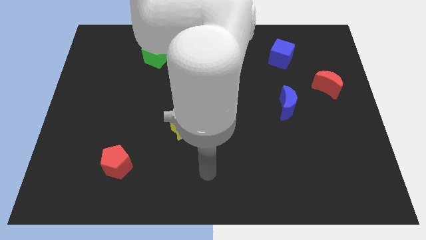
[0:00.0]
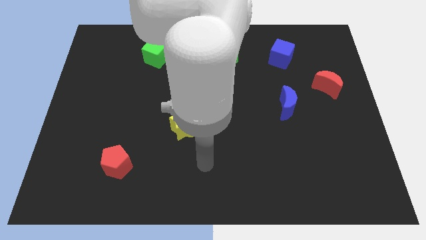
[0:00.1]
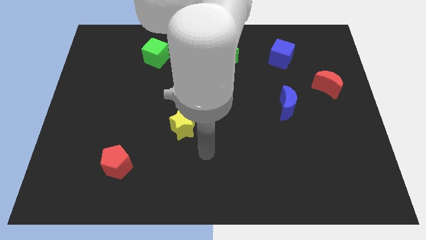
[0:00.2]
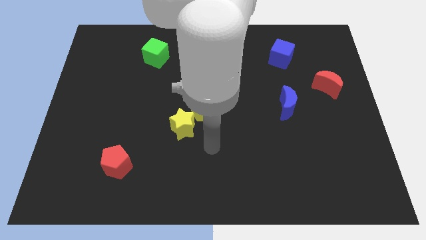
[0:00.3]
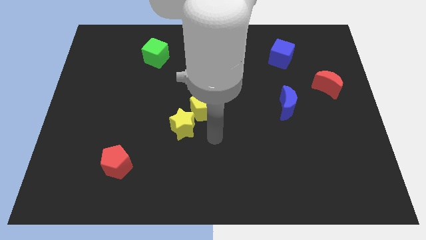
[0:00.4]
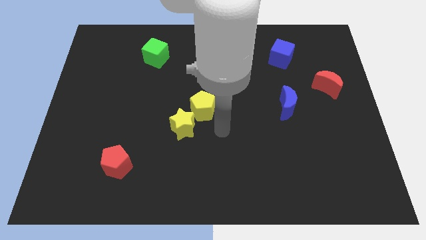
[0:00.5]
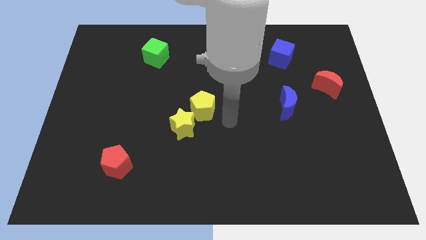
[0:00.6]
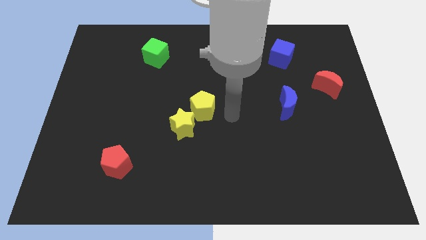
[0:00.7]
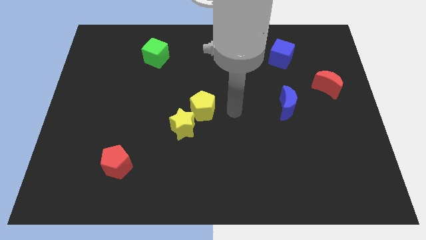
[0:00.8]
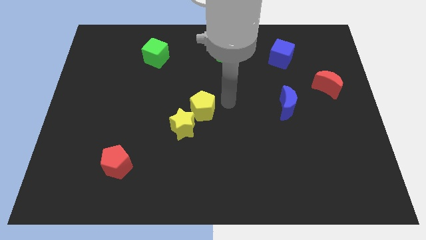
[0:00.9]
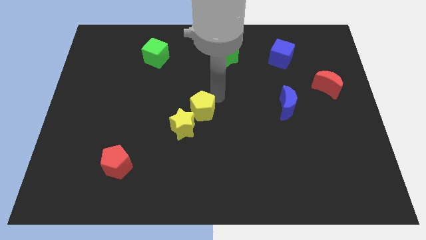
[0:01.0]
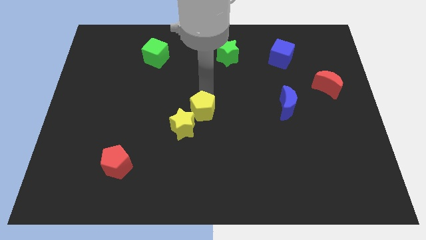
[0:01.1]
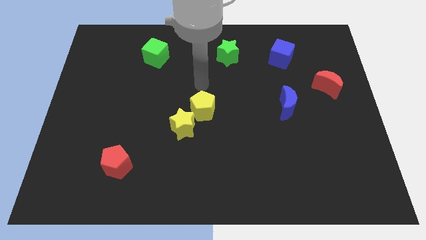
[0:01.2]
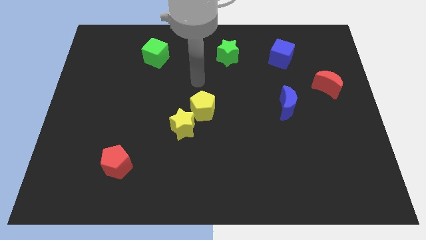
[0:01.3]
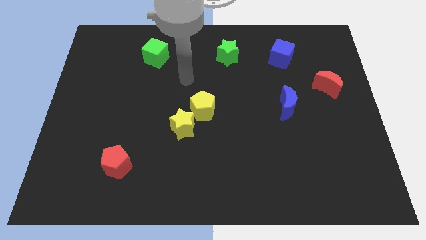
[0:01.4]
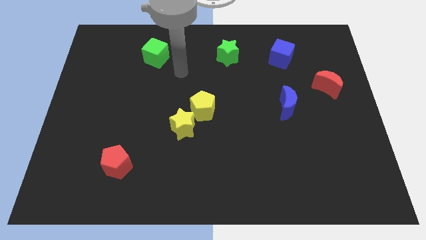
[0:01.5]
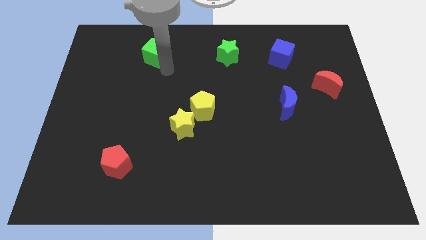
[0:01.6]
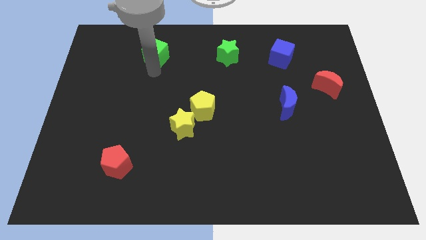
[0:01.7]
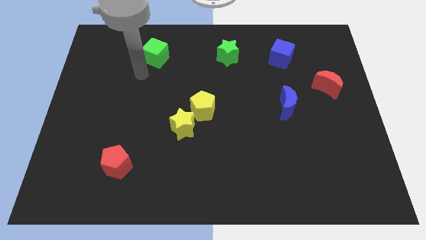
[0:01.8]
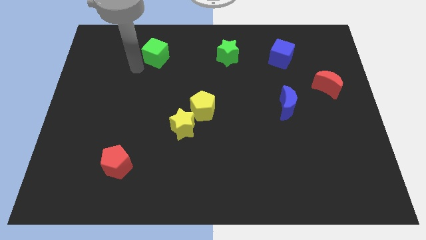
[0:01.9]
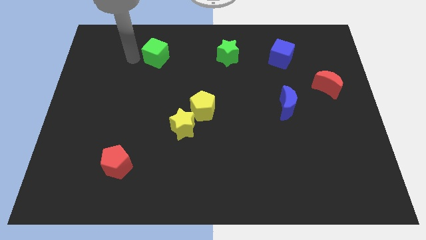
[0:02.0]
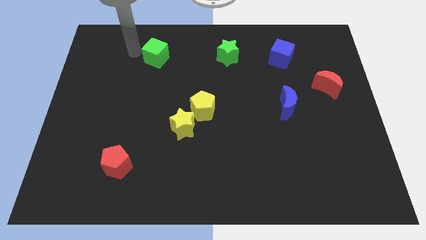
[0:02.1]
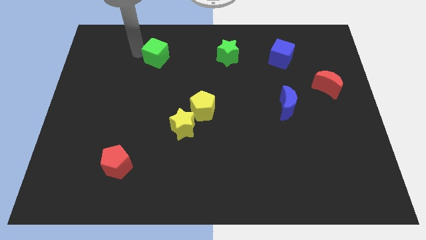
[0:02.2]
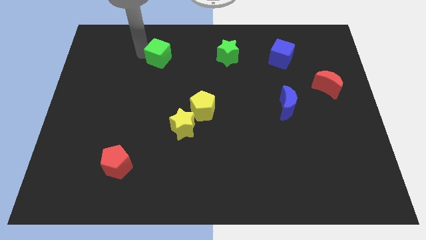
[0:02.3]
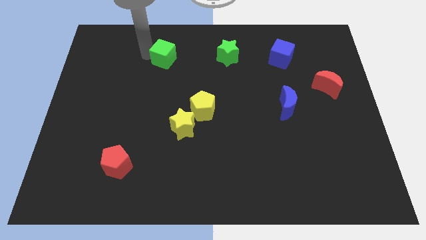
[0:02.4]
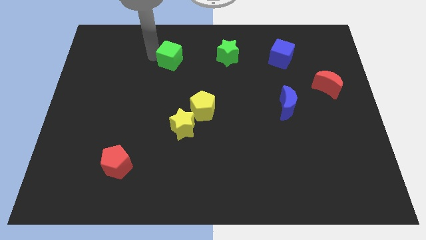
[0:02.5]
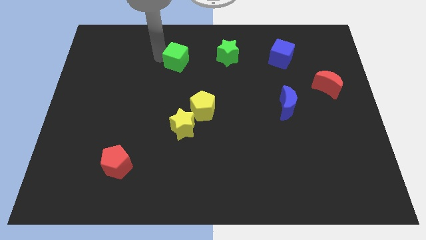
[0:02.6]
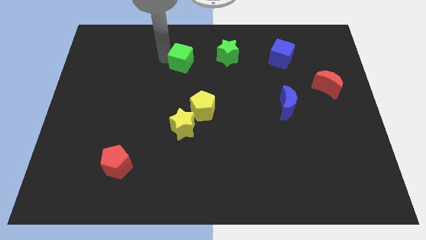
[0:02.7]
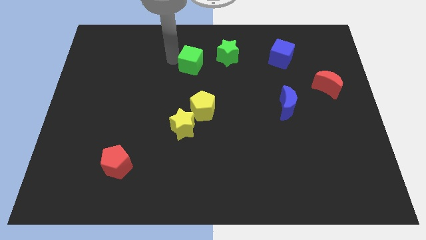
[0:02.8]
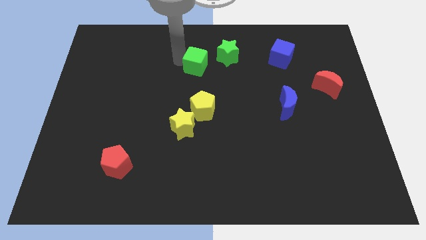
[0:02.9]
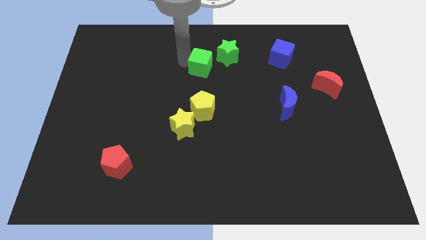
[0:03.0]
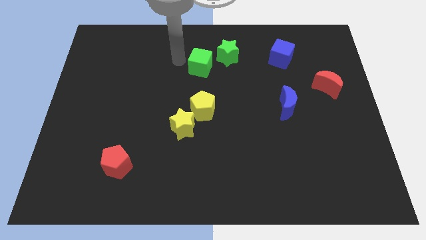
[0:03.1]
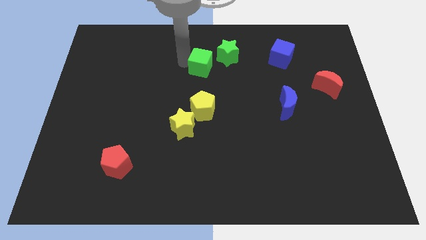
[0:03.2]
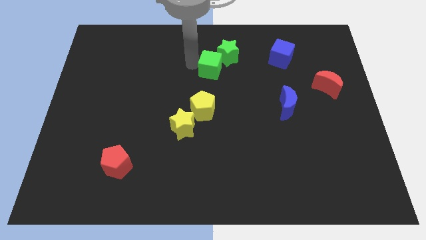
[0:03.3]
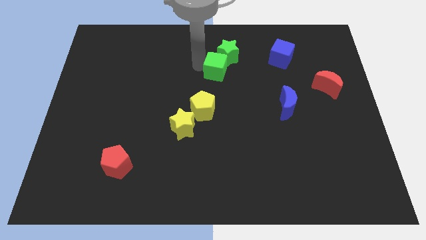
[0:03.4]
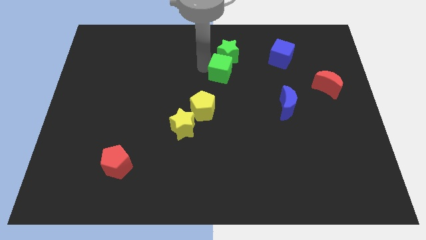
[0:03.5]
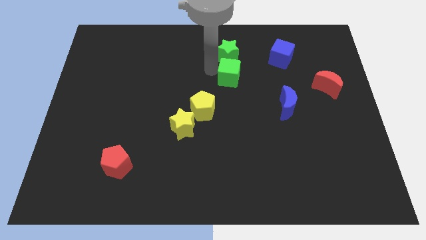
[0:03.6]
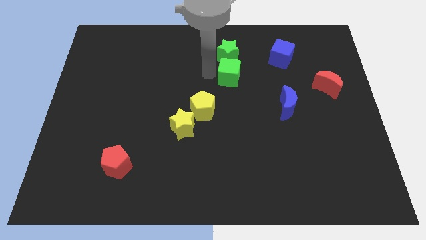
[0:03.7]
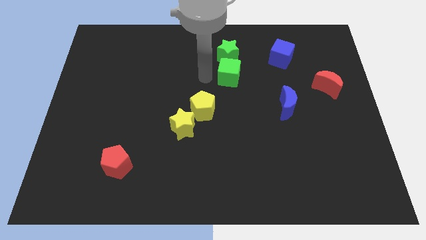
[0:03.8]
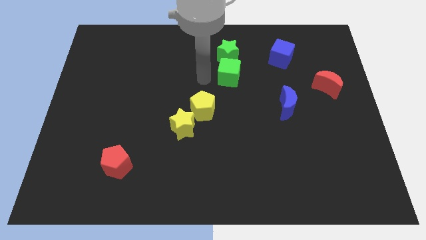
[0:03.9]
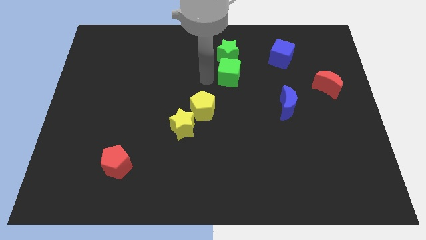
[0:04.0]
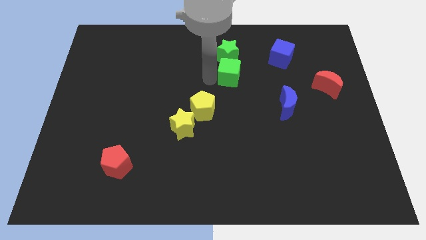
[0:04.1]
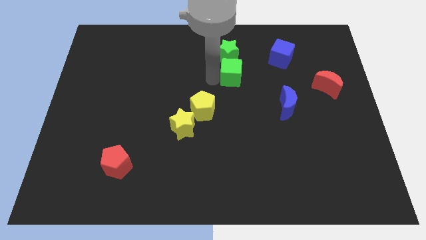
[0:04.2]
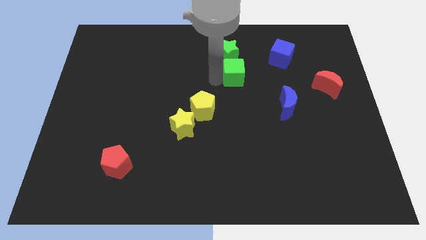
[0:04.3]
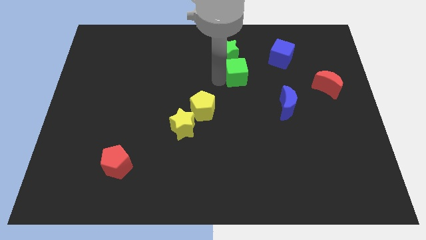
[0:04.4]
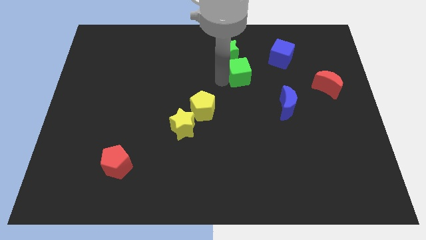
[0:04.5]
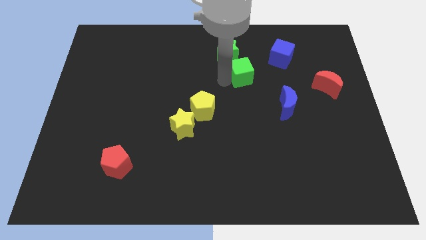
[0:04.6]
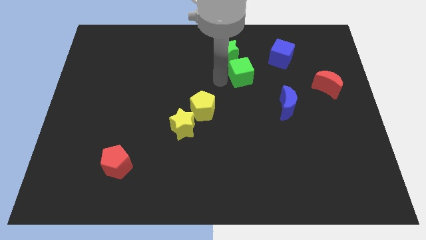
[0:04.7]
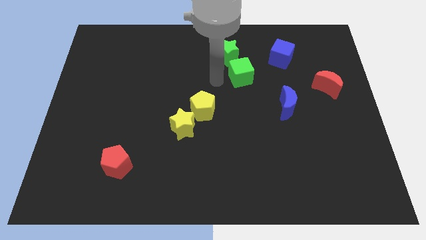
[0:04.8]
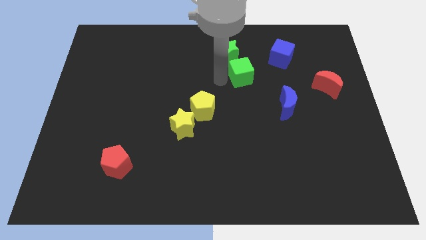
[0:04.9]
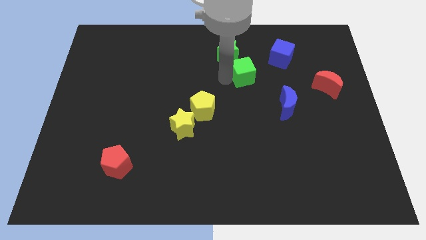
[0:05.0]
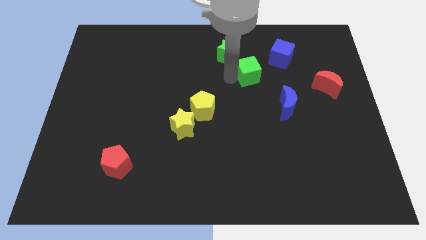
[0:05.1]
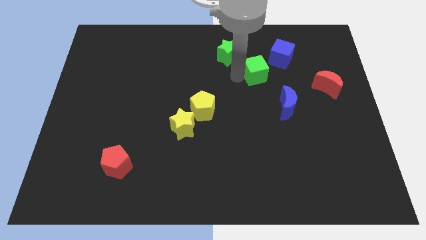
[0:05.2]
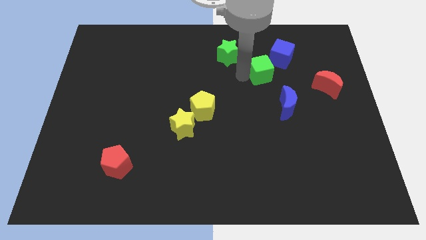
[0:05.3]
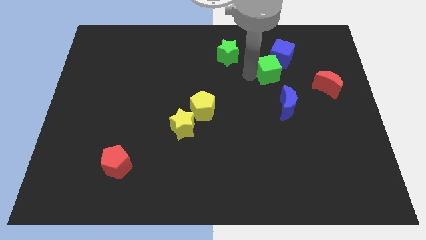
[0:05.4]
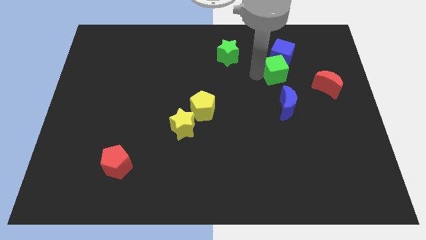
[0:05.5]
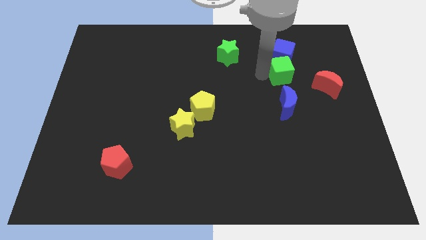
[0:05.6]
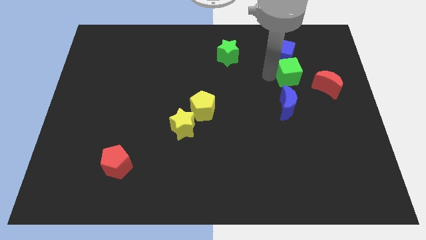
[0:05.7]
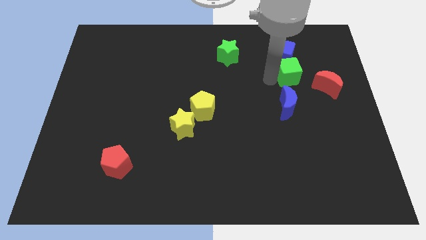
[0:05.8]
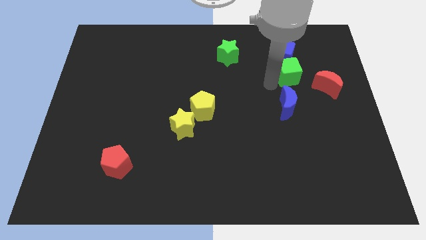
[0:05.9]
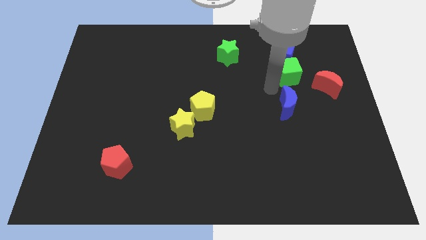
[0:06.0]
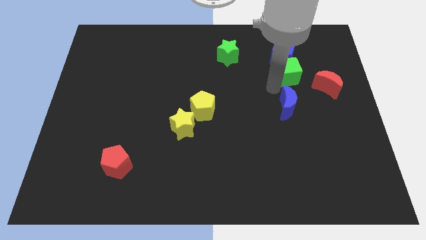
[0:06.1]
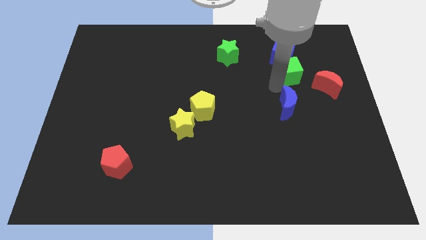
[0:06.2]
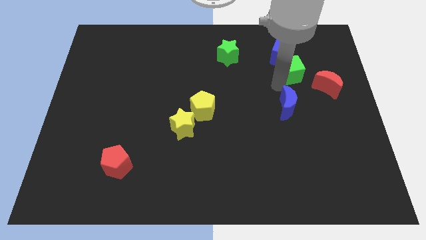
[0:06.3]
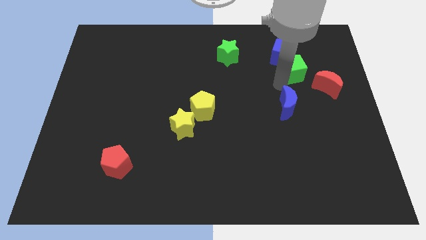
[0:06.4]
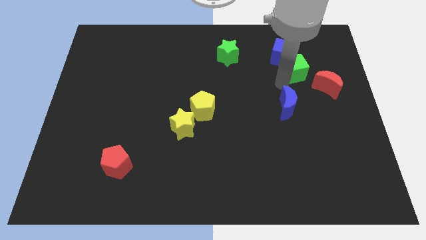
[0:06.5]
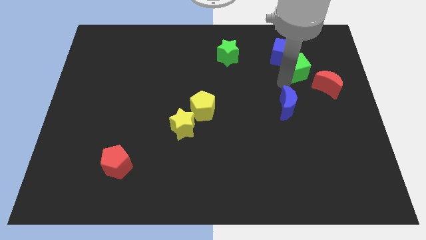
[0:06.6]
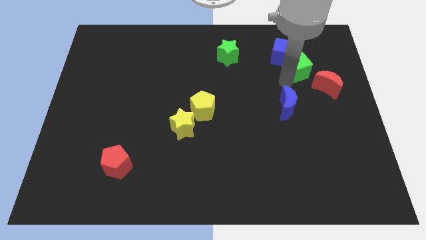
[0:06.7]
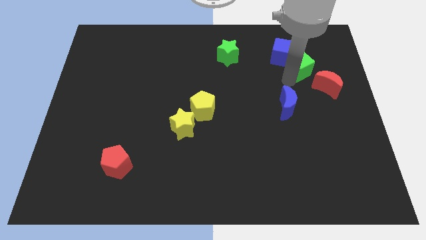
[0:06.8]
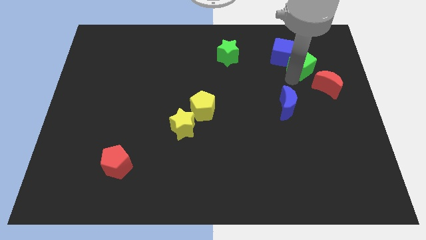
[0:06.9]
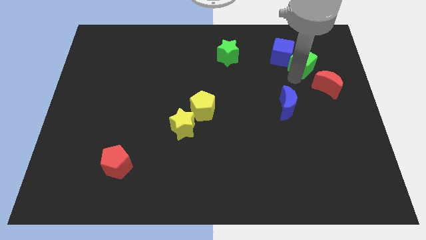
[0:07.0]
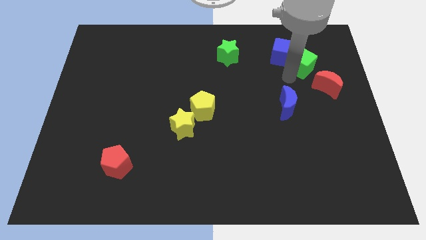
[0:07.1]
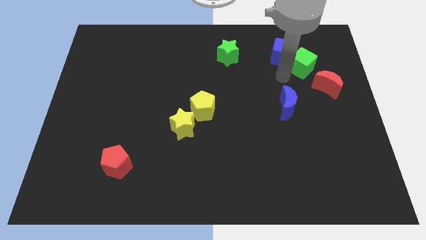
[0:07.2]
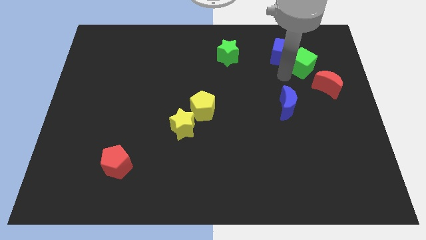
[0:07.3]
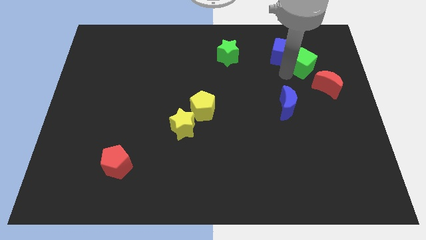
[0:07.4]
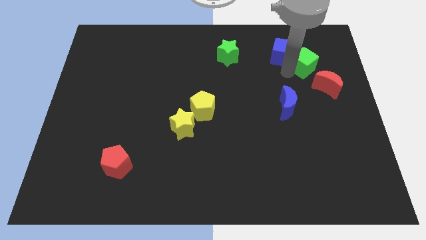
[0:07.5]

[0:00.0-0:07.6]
put the green cube to the top side of the red moon
